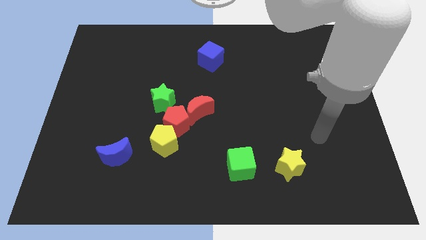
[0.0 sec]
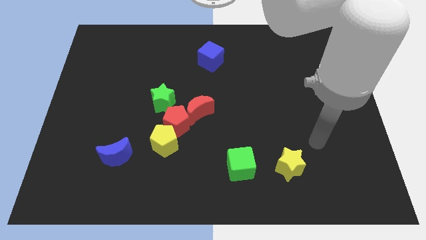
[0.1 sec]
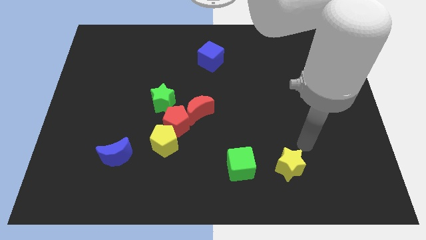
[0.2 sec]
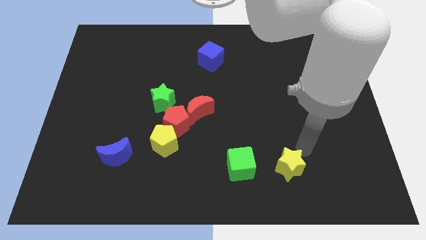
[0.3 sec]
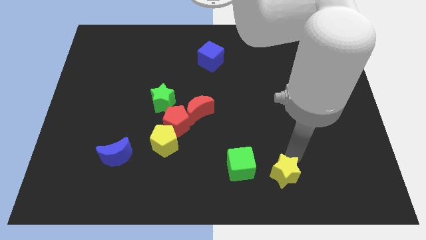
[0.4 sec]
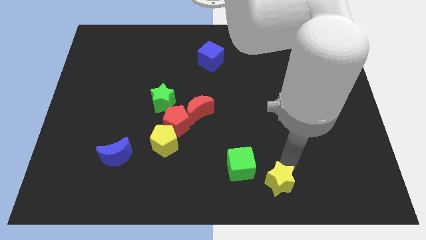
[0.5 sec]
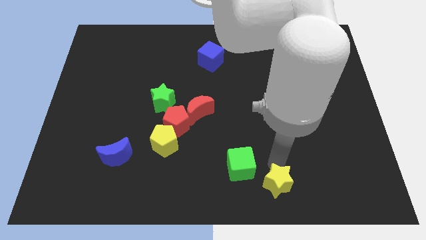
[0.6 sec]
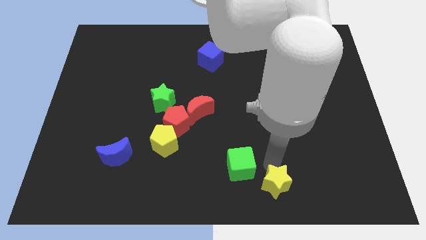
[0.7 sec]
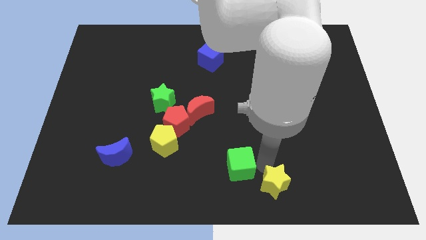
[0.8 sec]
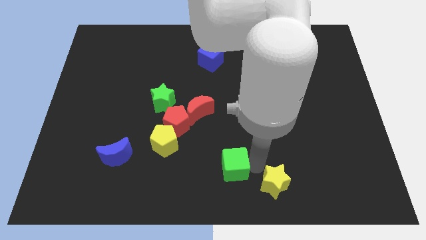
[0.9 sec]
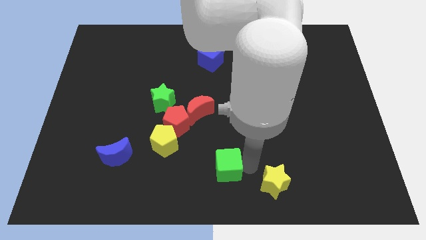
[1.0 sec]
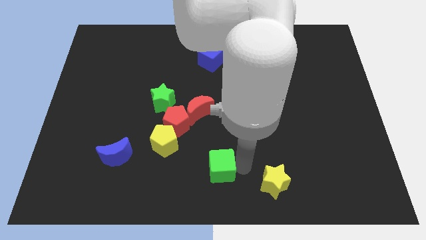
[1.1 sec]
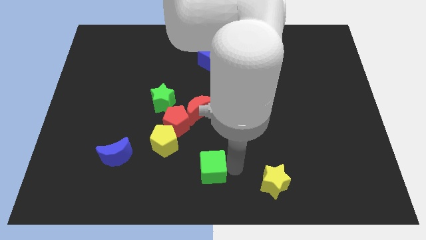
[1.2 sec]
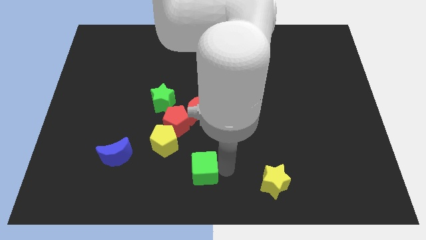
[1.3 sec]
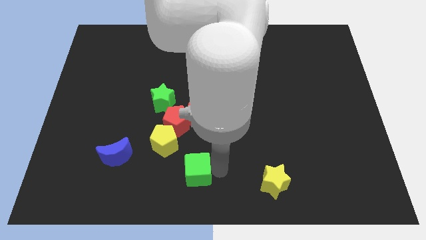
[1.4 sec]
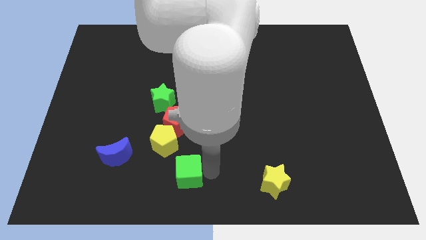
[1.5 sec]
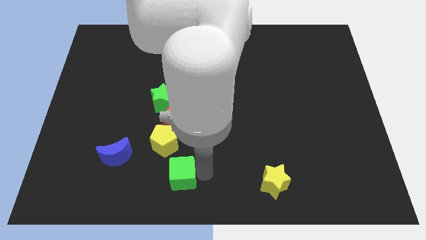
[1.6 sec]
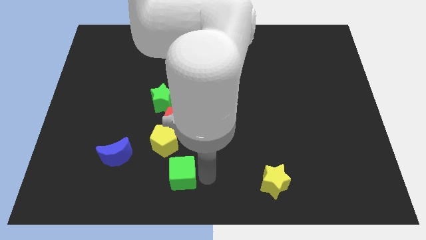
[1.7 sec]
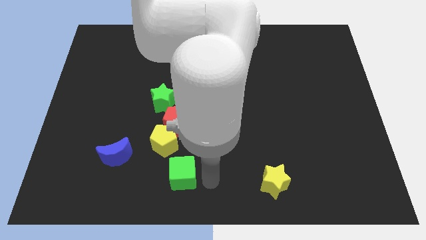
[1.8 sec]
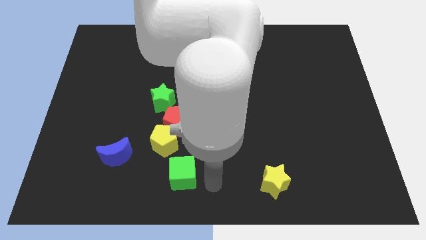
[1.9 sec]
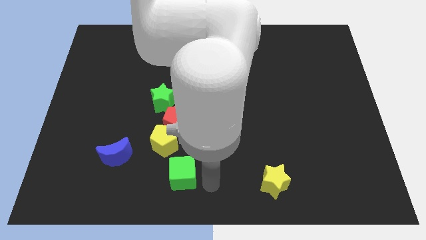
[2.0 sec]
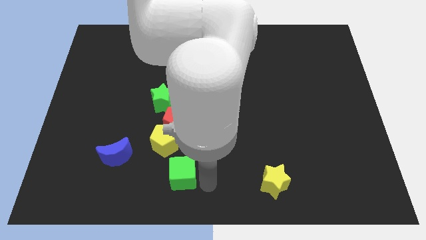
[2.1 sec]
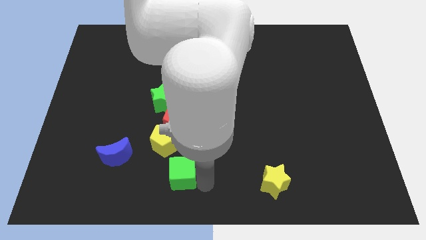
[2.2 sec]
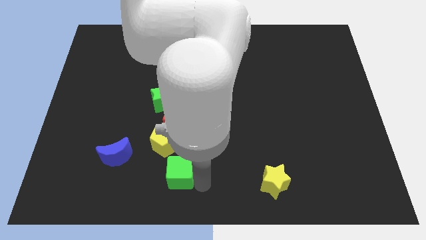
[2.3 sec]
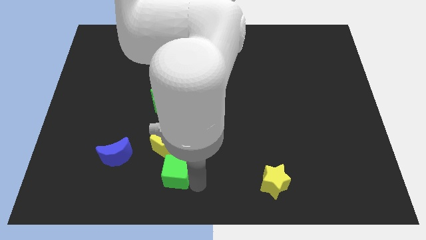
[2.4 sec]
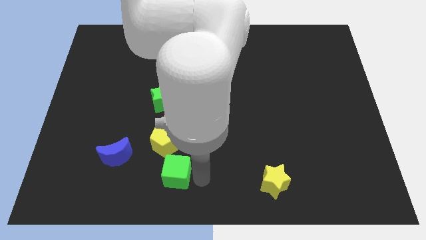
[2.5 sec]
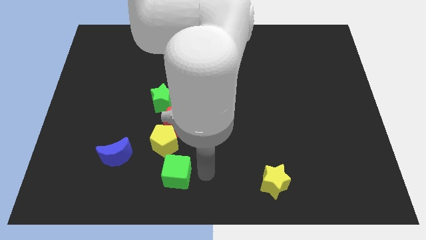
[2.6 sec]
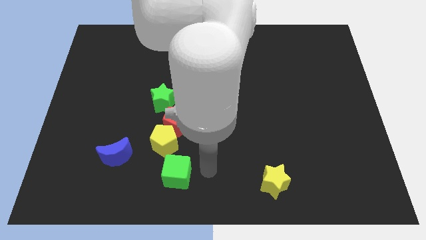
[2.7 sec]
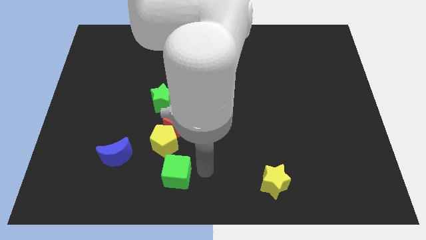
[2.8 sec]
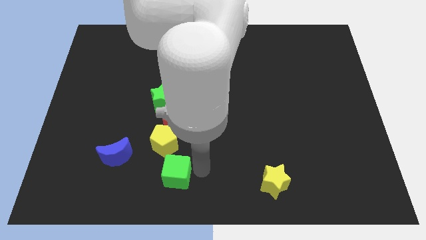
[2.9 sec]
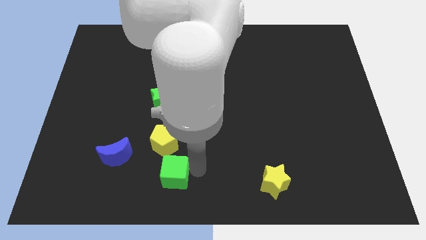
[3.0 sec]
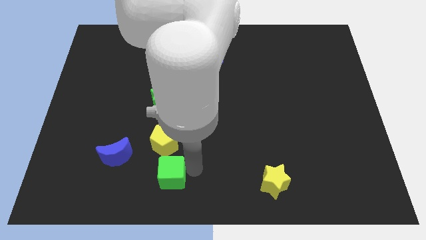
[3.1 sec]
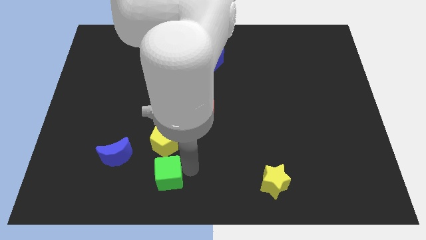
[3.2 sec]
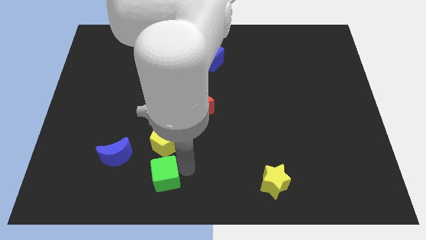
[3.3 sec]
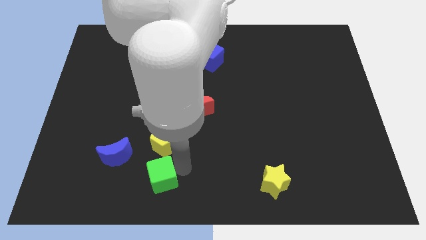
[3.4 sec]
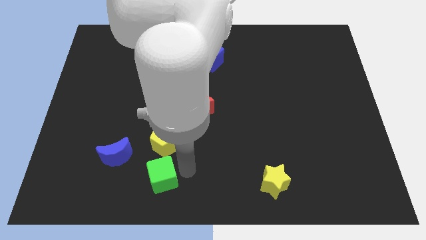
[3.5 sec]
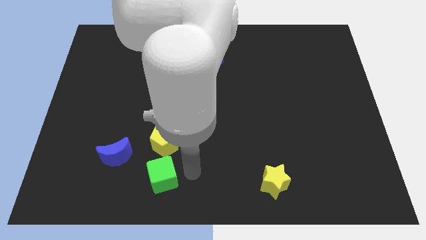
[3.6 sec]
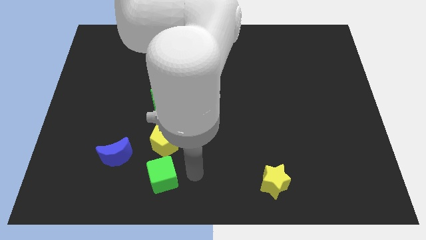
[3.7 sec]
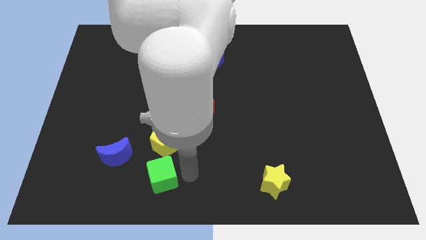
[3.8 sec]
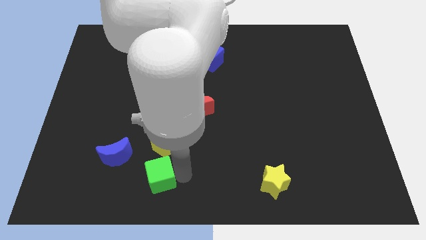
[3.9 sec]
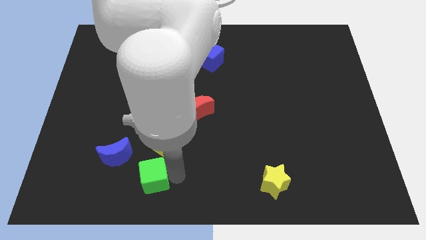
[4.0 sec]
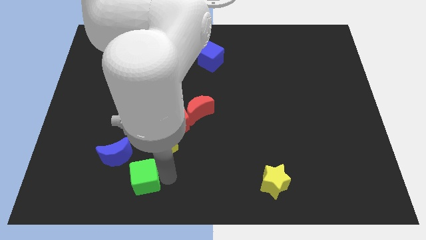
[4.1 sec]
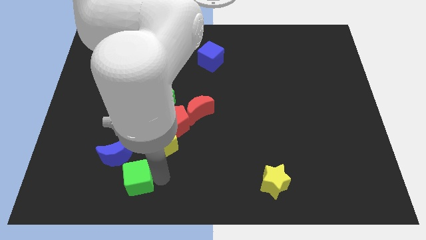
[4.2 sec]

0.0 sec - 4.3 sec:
push the green cube to the left

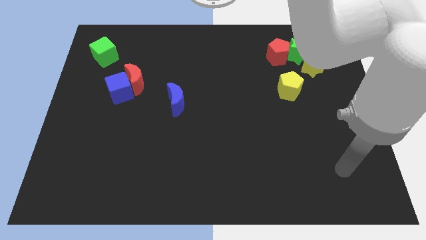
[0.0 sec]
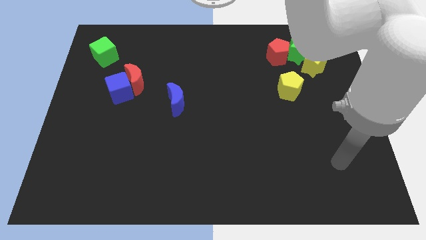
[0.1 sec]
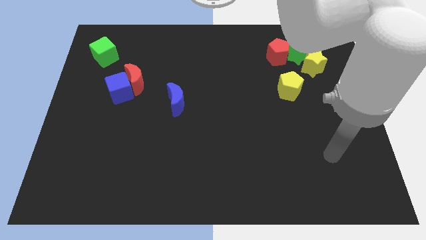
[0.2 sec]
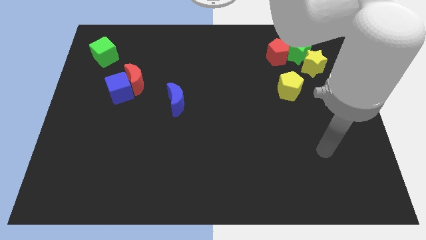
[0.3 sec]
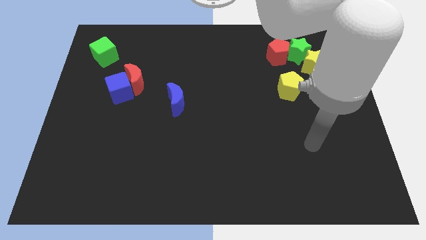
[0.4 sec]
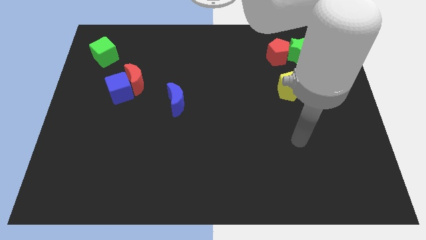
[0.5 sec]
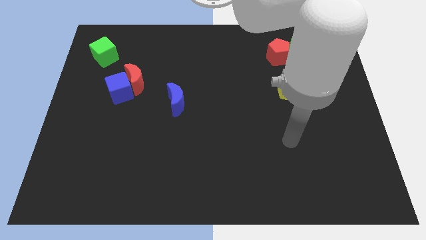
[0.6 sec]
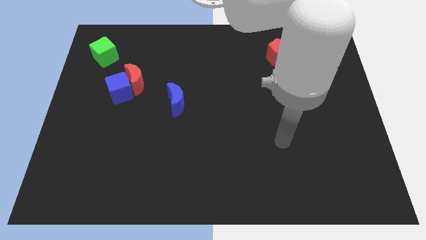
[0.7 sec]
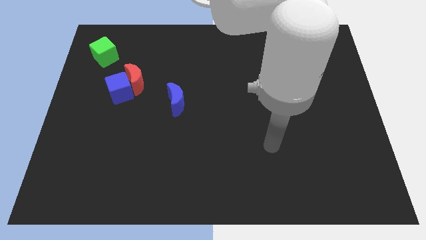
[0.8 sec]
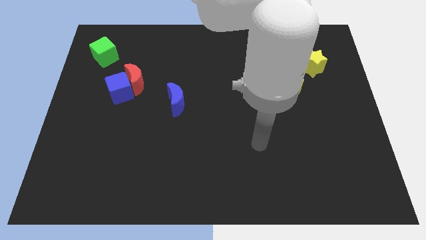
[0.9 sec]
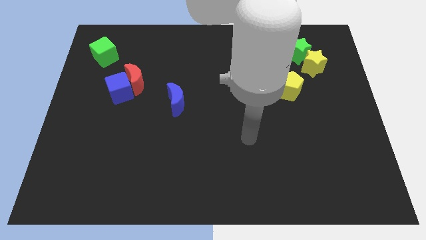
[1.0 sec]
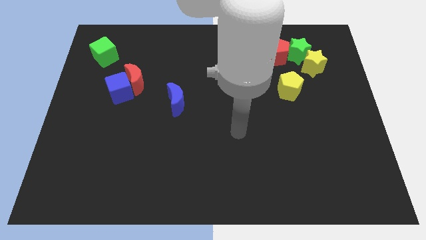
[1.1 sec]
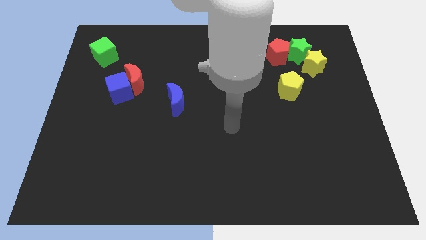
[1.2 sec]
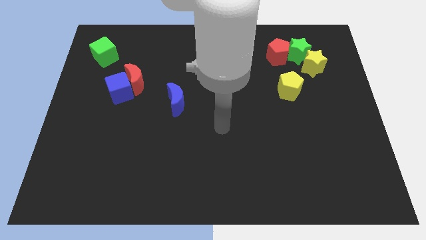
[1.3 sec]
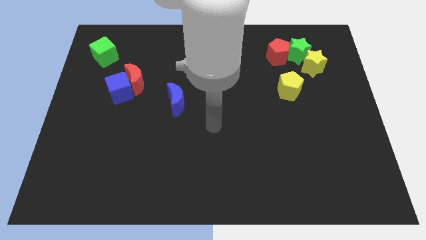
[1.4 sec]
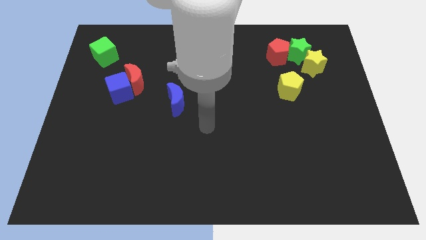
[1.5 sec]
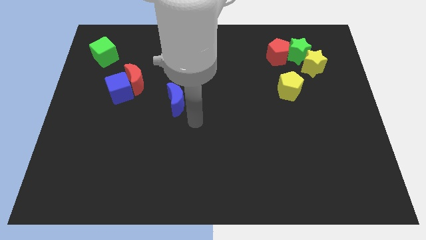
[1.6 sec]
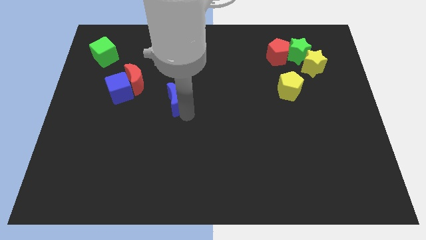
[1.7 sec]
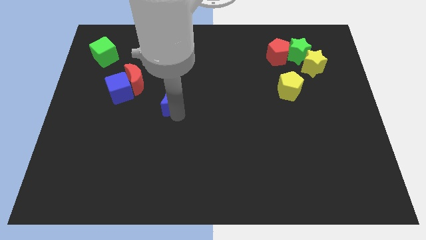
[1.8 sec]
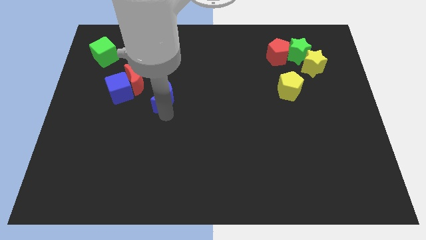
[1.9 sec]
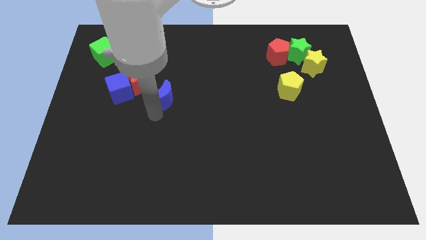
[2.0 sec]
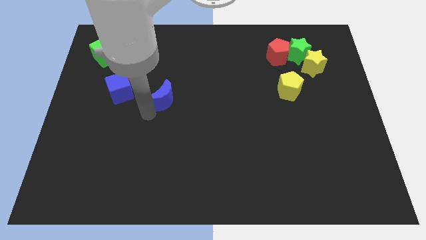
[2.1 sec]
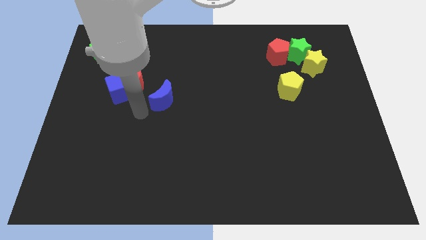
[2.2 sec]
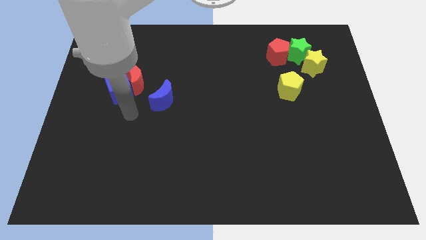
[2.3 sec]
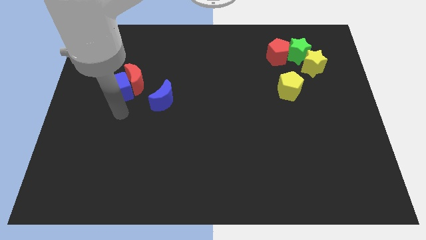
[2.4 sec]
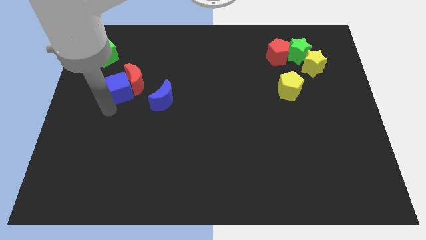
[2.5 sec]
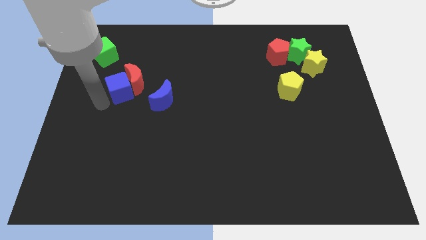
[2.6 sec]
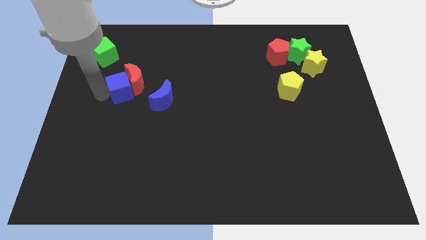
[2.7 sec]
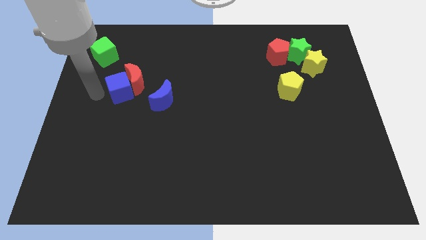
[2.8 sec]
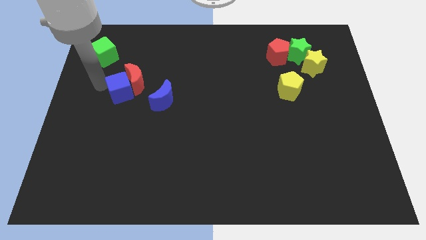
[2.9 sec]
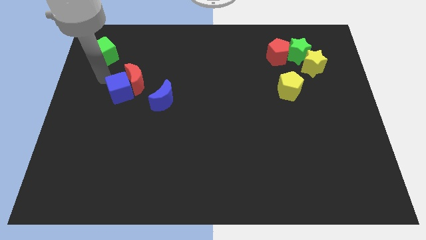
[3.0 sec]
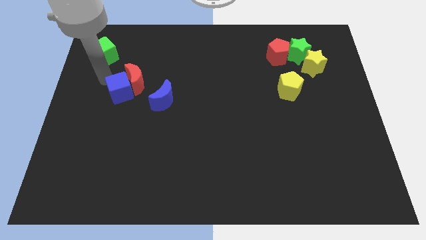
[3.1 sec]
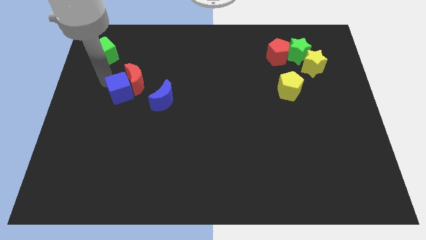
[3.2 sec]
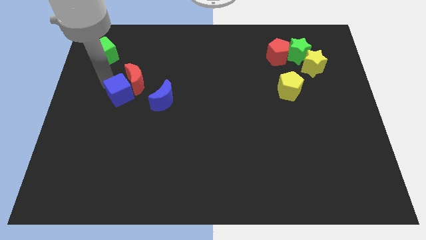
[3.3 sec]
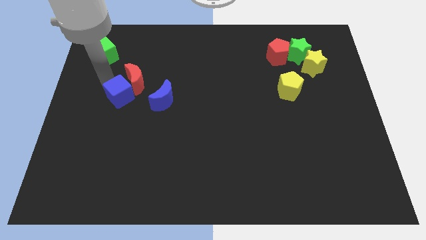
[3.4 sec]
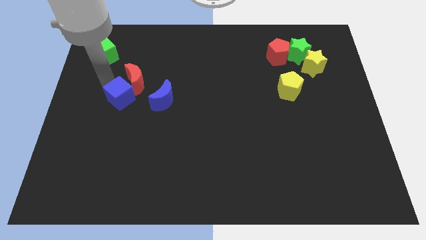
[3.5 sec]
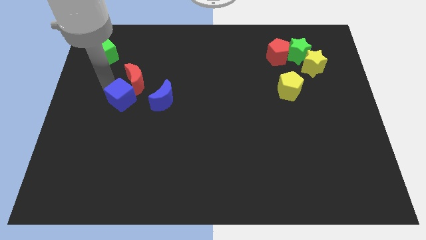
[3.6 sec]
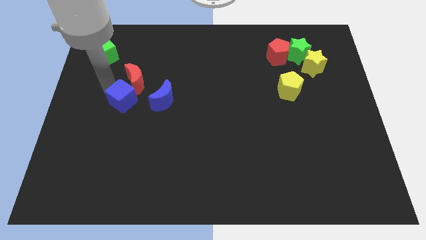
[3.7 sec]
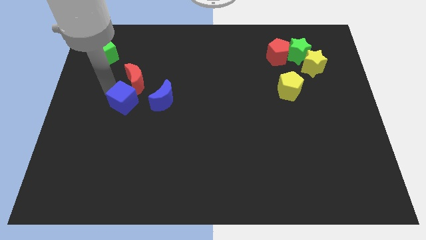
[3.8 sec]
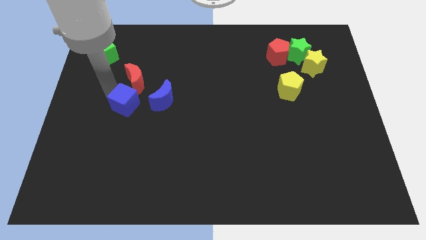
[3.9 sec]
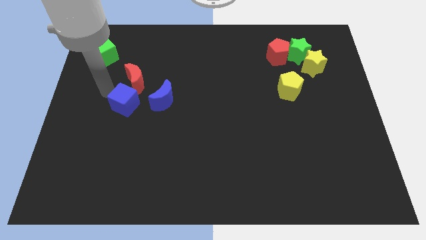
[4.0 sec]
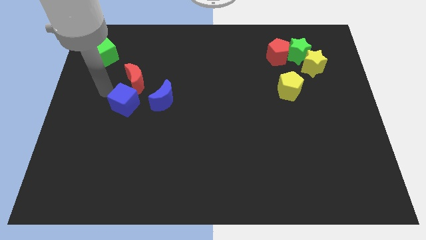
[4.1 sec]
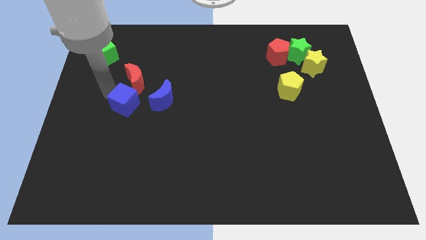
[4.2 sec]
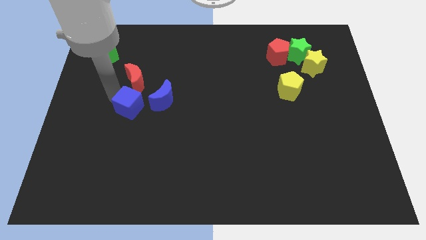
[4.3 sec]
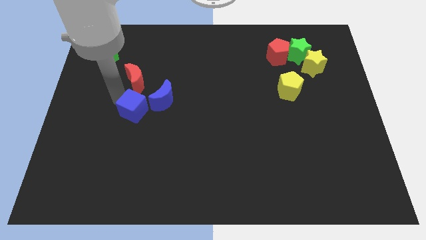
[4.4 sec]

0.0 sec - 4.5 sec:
slide the blue cube a bit down and to the right diagonally
